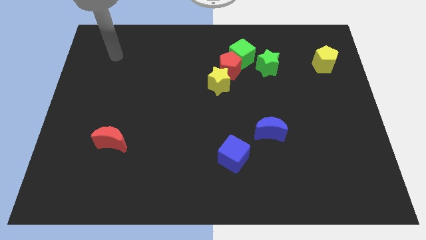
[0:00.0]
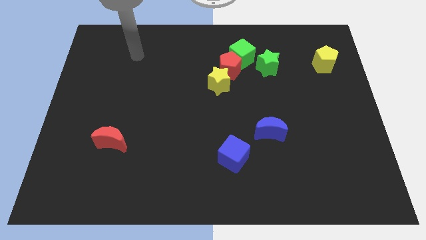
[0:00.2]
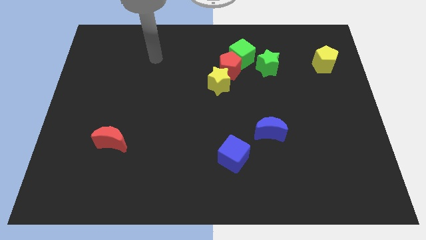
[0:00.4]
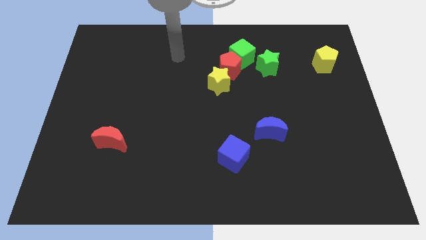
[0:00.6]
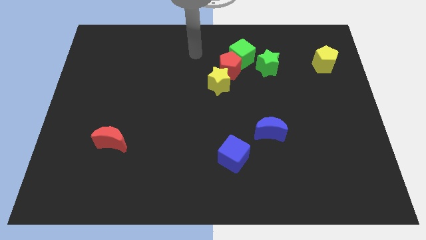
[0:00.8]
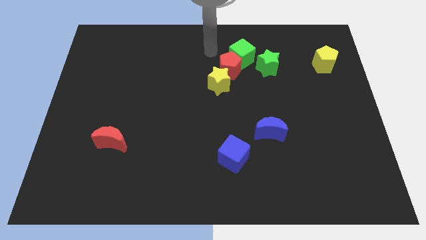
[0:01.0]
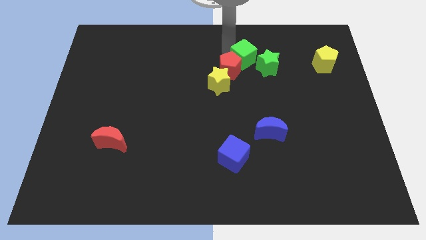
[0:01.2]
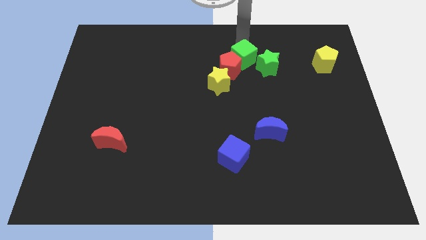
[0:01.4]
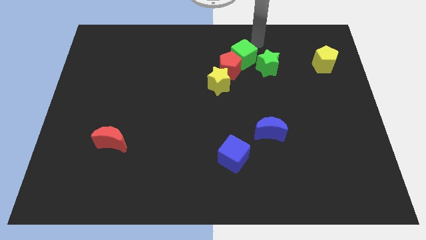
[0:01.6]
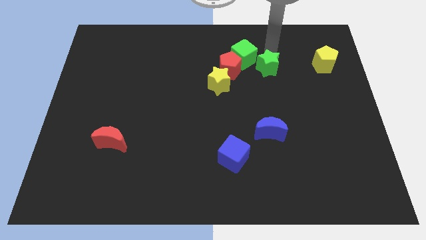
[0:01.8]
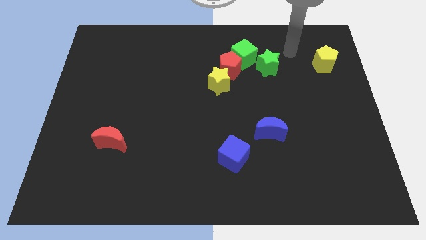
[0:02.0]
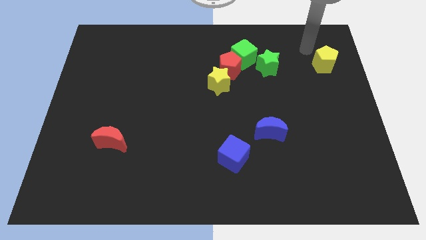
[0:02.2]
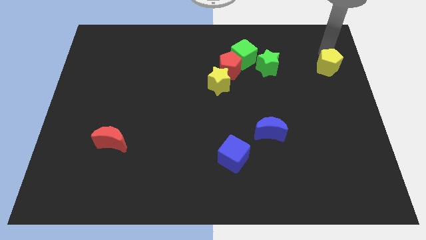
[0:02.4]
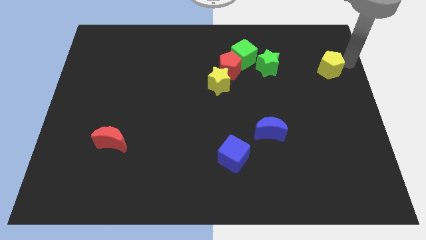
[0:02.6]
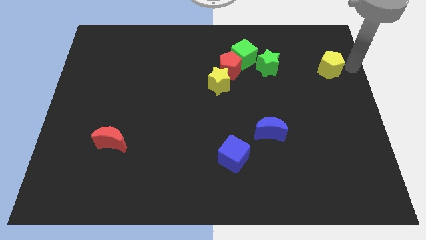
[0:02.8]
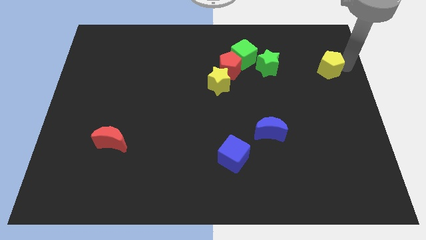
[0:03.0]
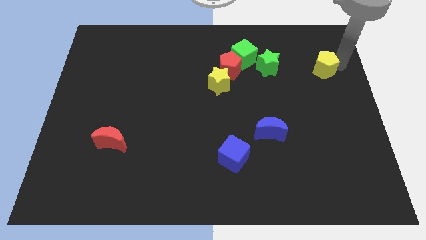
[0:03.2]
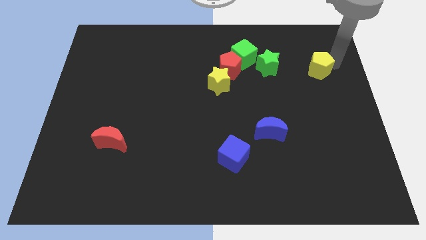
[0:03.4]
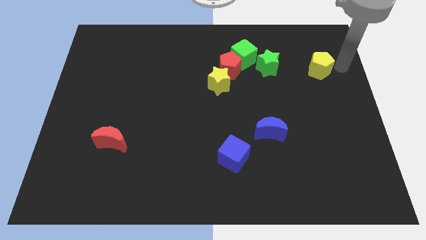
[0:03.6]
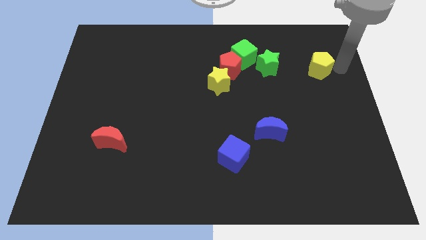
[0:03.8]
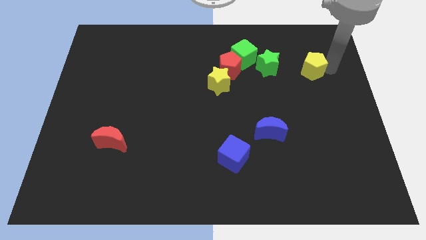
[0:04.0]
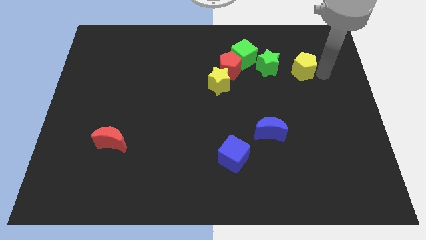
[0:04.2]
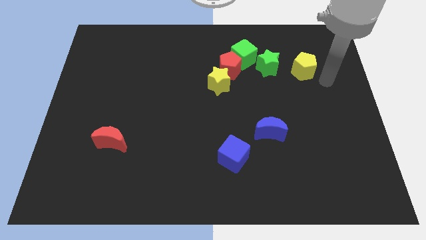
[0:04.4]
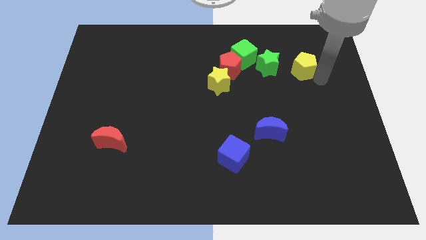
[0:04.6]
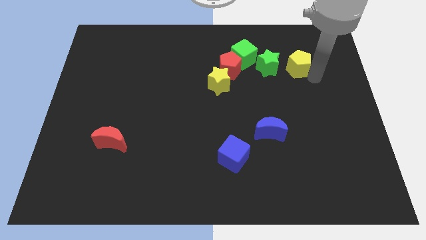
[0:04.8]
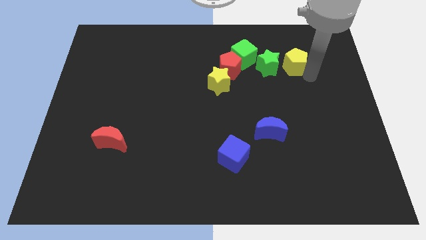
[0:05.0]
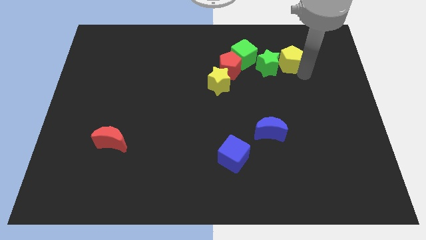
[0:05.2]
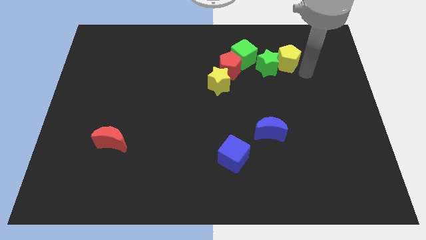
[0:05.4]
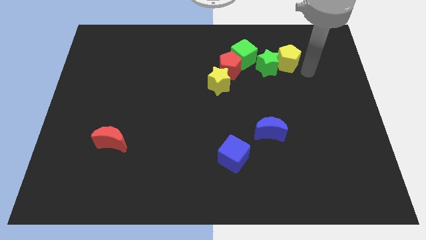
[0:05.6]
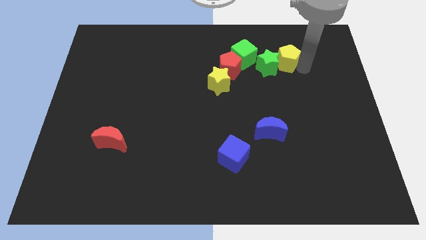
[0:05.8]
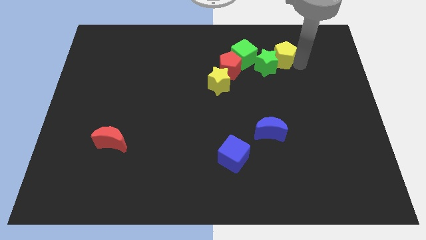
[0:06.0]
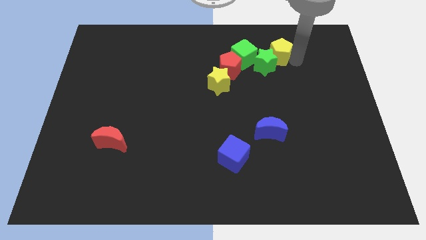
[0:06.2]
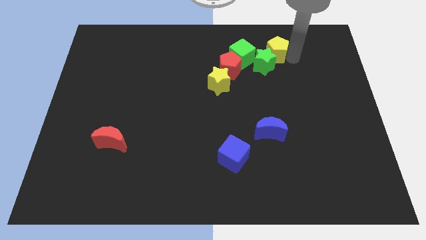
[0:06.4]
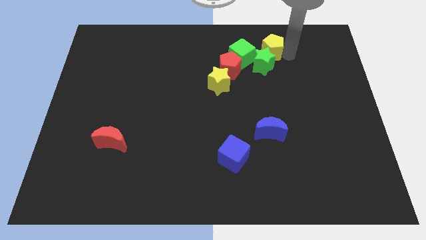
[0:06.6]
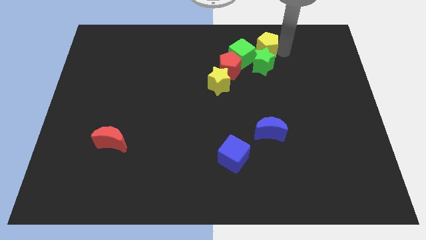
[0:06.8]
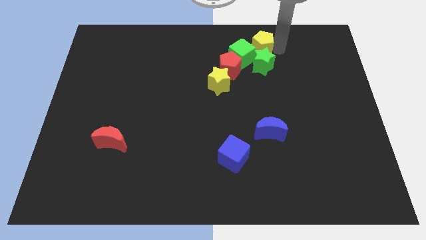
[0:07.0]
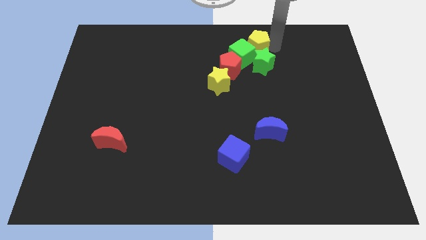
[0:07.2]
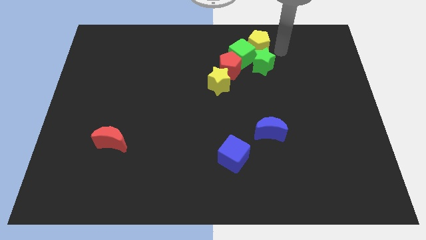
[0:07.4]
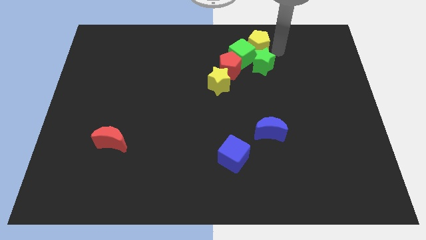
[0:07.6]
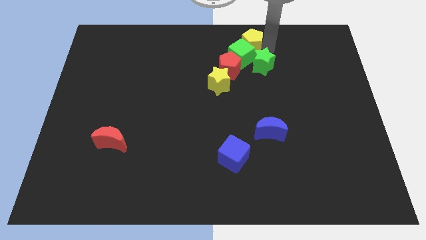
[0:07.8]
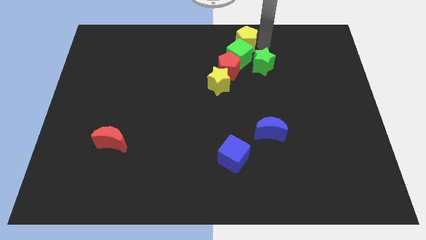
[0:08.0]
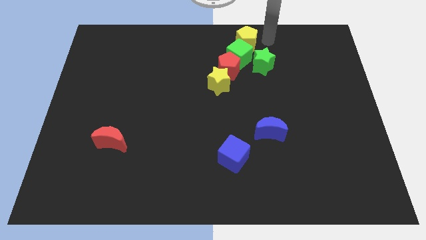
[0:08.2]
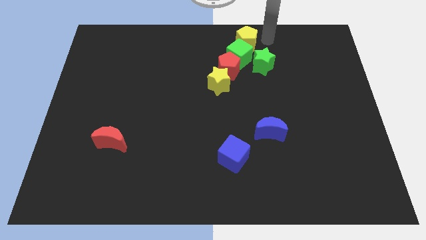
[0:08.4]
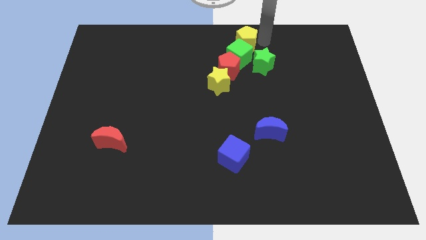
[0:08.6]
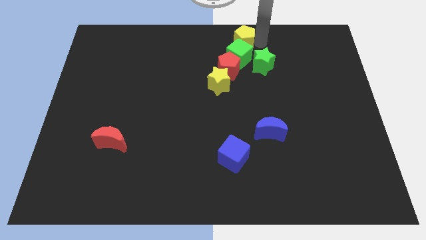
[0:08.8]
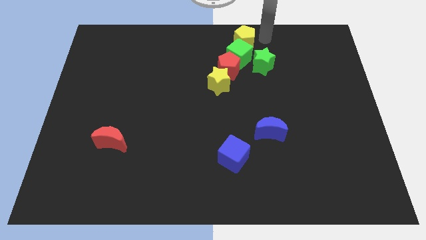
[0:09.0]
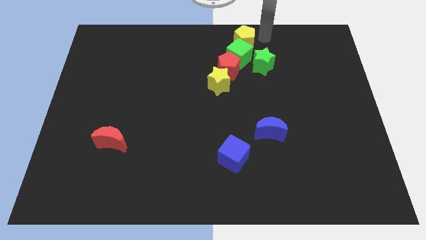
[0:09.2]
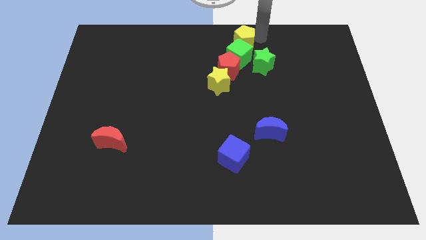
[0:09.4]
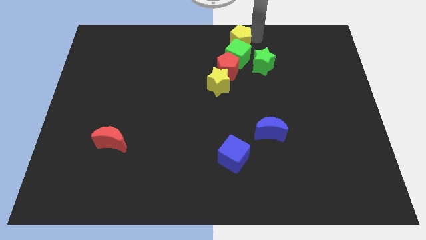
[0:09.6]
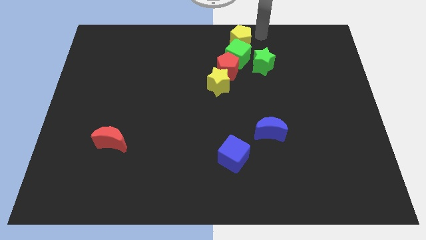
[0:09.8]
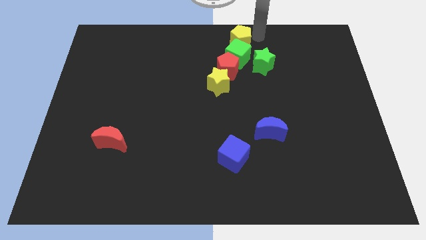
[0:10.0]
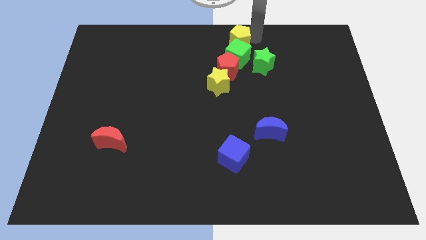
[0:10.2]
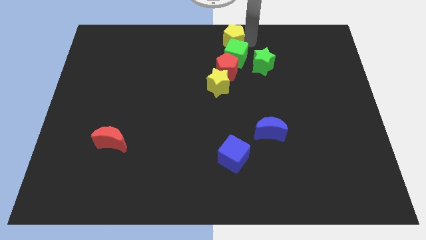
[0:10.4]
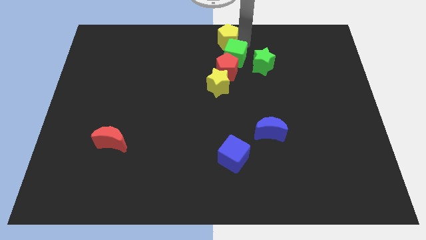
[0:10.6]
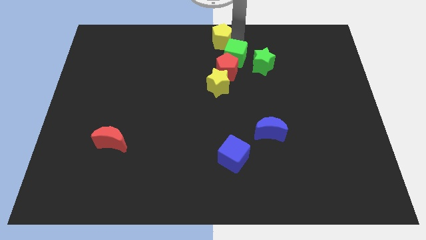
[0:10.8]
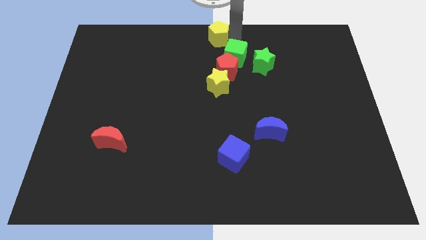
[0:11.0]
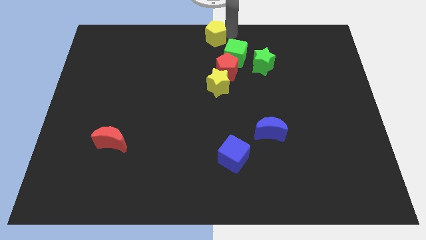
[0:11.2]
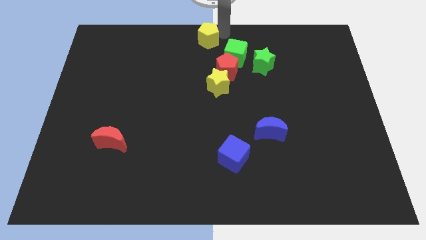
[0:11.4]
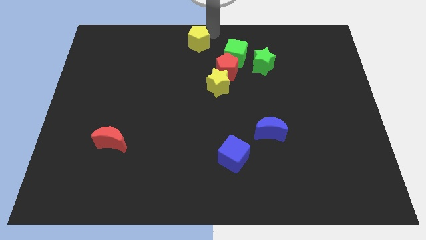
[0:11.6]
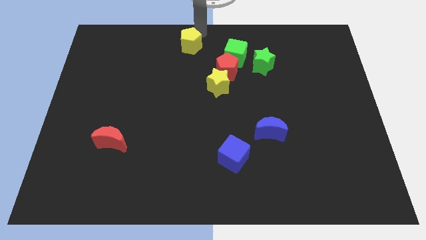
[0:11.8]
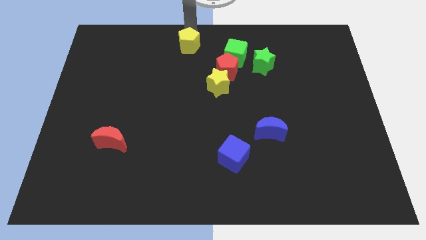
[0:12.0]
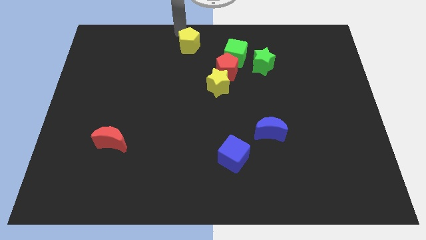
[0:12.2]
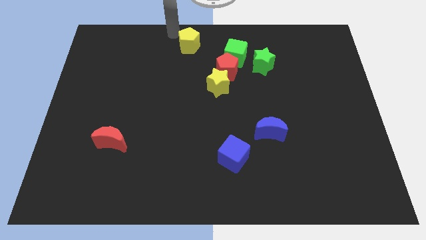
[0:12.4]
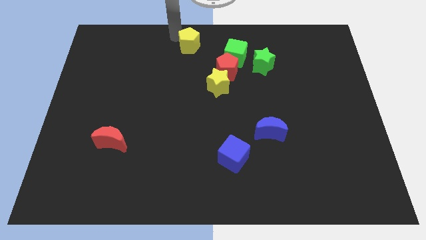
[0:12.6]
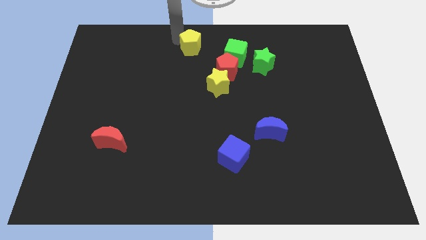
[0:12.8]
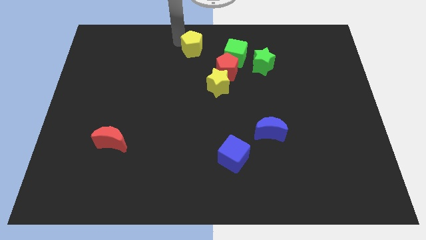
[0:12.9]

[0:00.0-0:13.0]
put the yellow pentagon diagonally up and to the left of the red pentagon

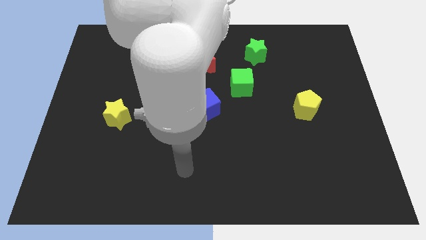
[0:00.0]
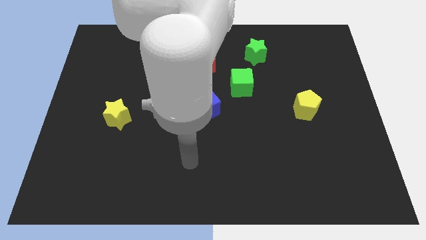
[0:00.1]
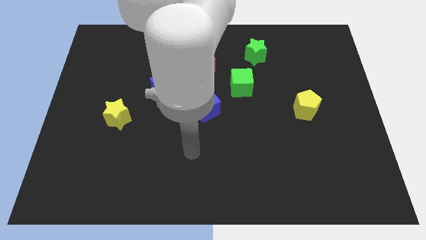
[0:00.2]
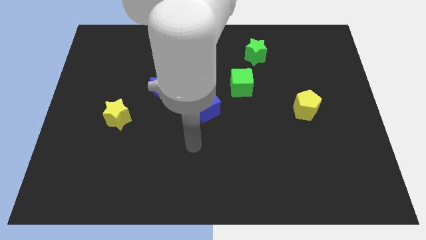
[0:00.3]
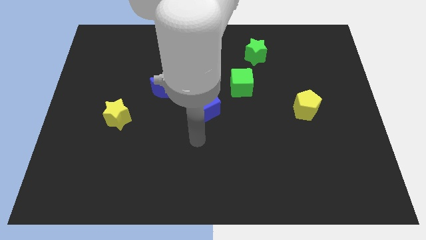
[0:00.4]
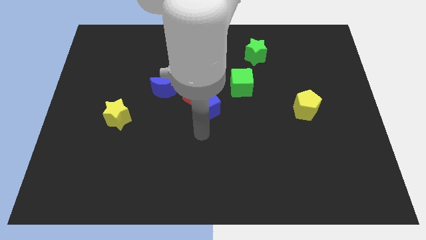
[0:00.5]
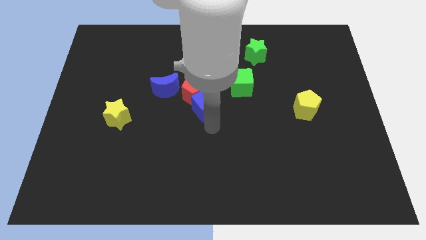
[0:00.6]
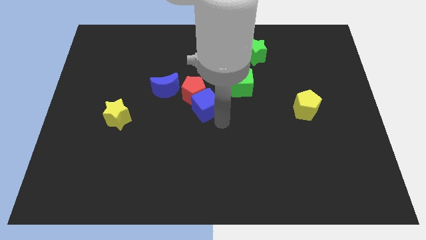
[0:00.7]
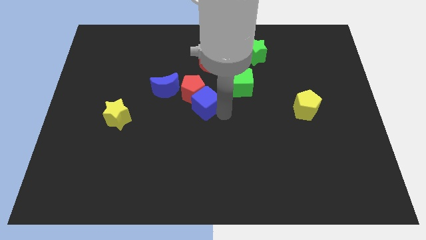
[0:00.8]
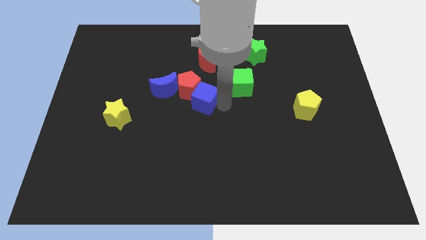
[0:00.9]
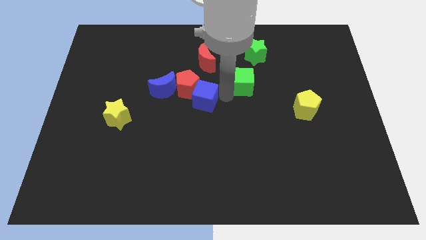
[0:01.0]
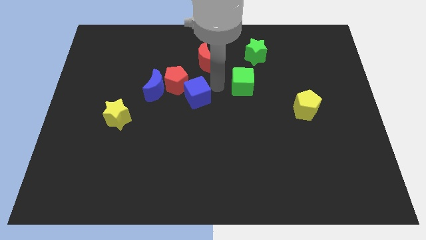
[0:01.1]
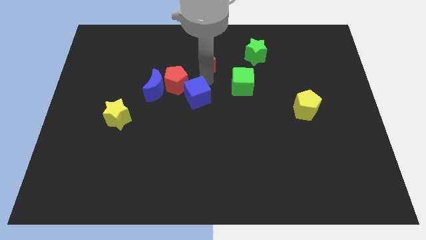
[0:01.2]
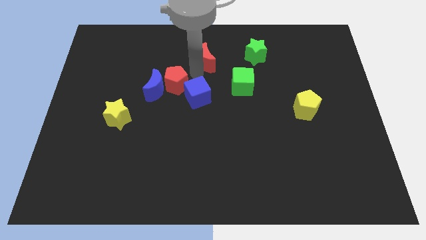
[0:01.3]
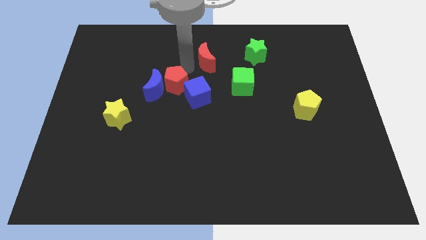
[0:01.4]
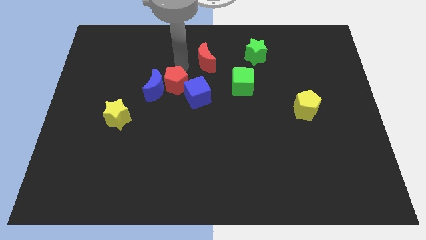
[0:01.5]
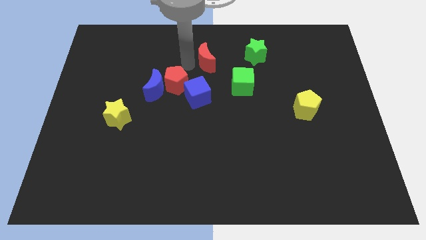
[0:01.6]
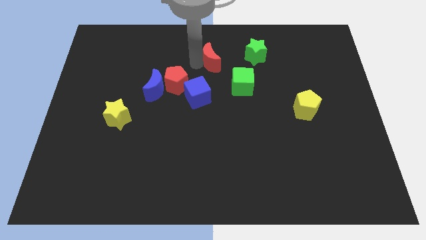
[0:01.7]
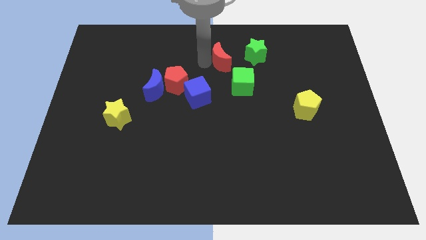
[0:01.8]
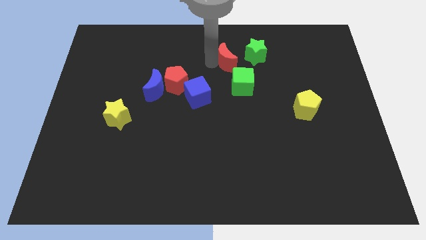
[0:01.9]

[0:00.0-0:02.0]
move the red moon above the green cube
